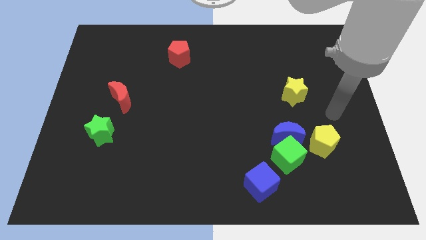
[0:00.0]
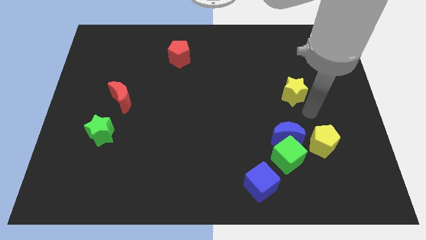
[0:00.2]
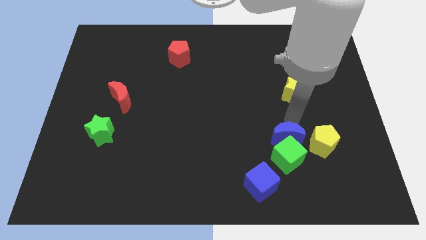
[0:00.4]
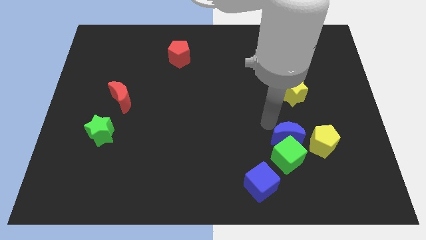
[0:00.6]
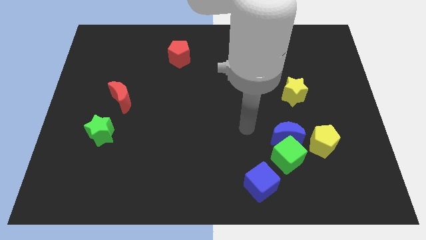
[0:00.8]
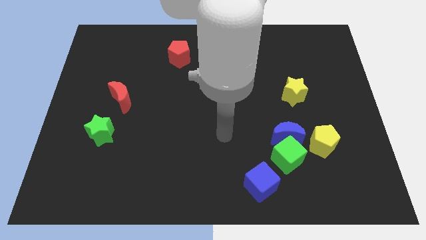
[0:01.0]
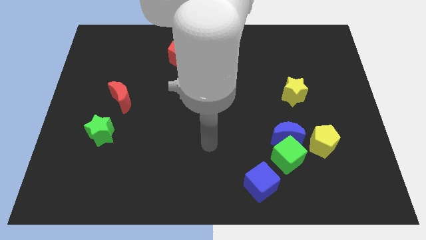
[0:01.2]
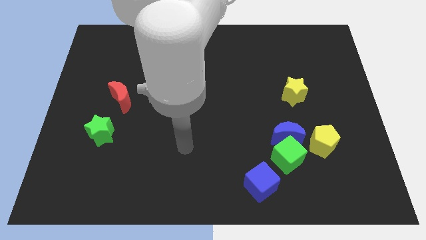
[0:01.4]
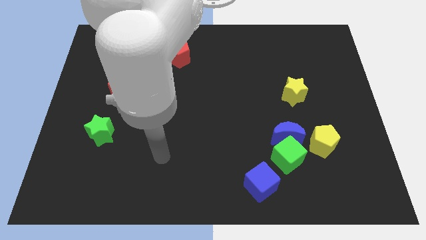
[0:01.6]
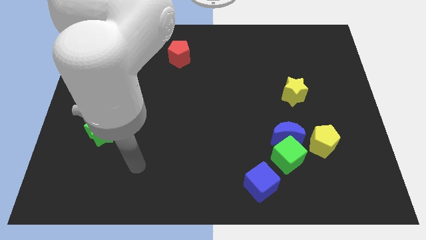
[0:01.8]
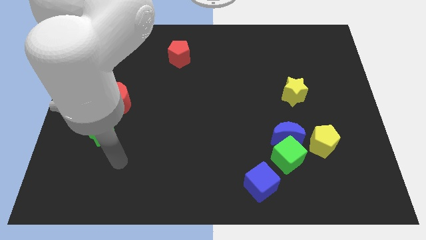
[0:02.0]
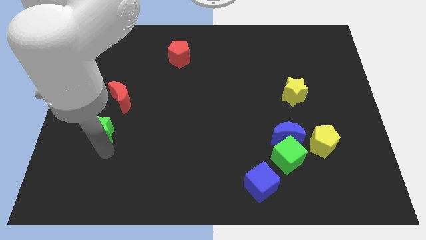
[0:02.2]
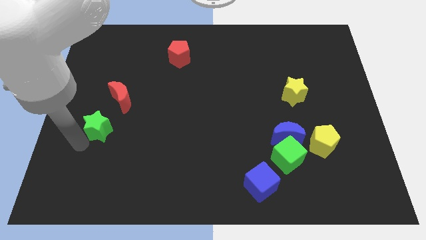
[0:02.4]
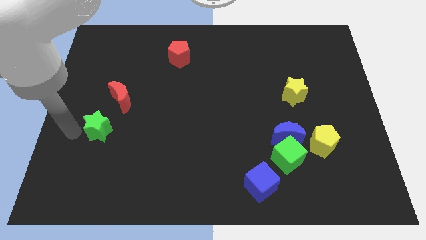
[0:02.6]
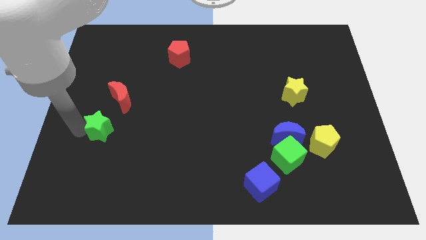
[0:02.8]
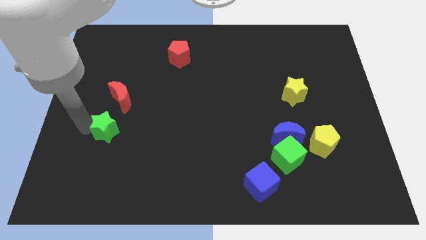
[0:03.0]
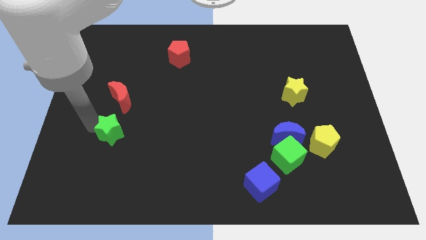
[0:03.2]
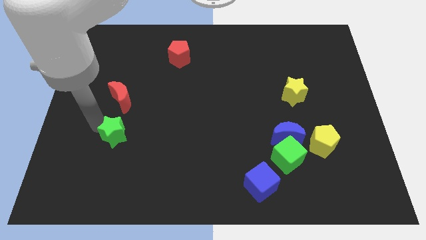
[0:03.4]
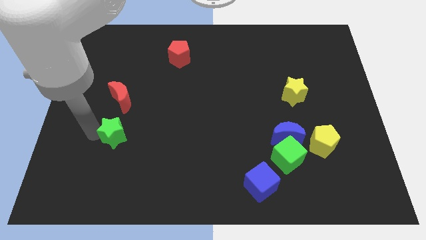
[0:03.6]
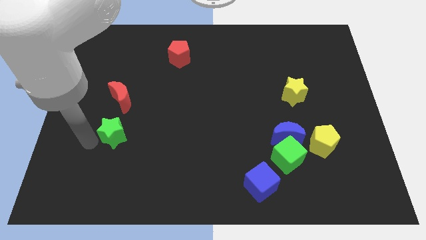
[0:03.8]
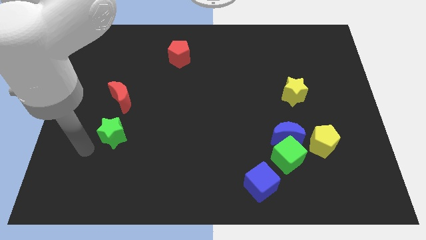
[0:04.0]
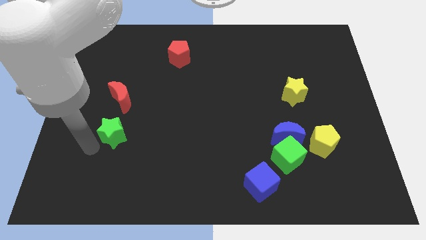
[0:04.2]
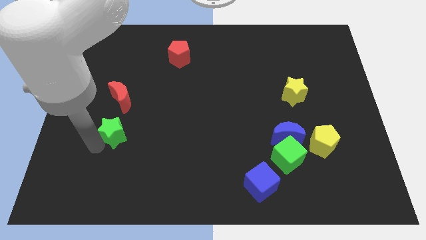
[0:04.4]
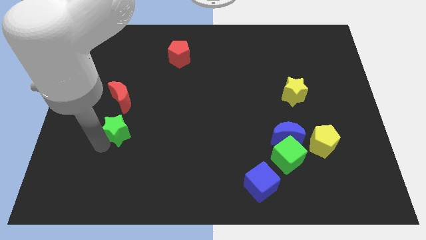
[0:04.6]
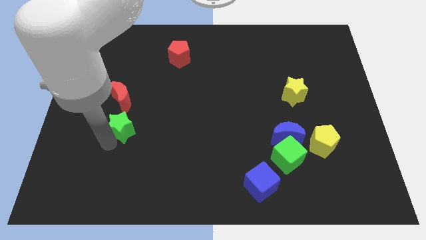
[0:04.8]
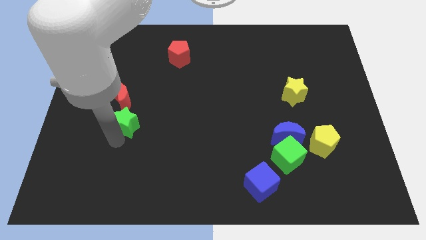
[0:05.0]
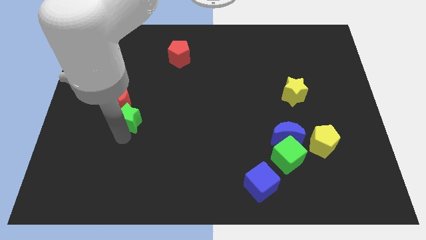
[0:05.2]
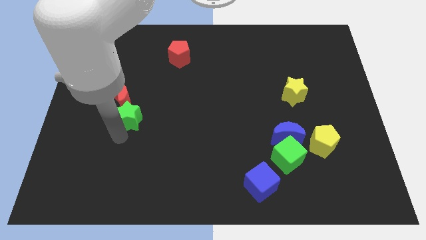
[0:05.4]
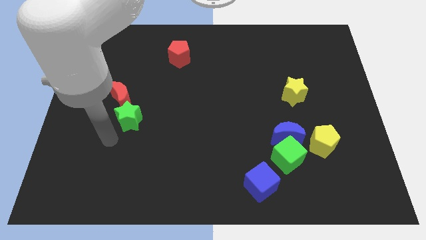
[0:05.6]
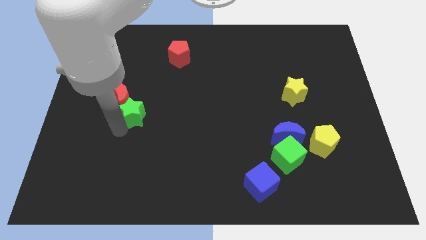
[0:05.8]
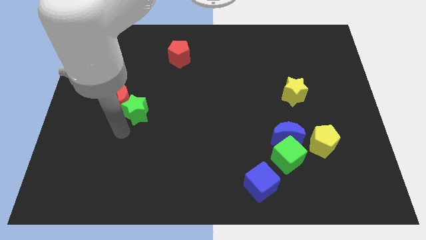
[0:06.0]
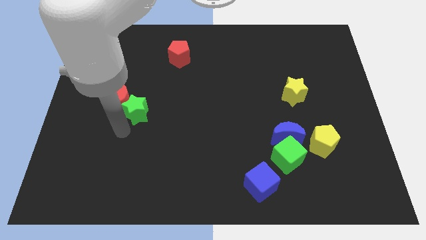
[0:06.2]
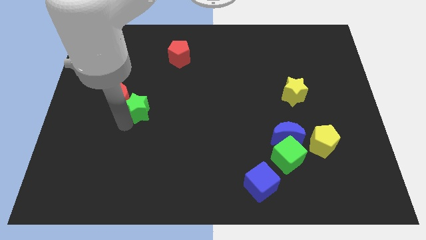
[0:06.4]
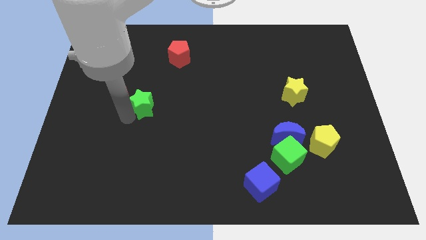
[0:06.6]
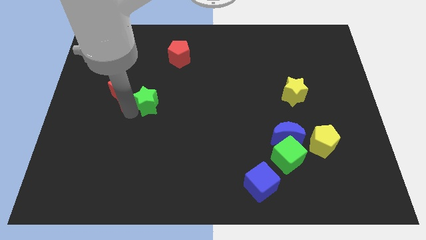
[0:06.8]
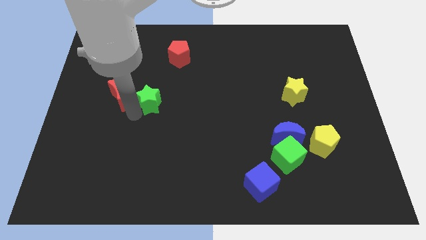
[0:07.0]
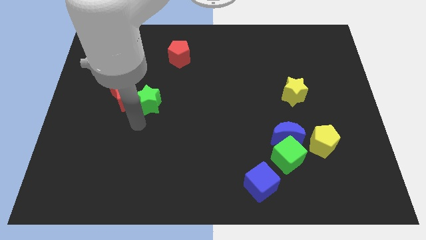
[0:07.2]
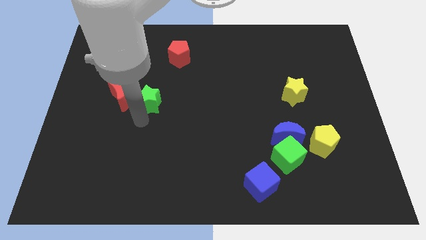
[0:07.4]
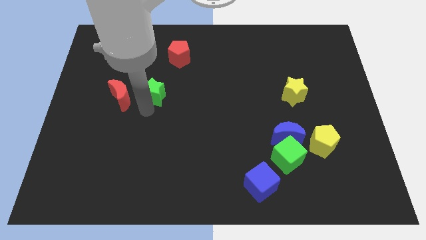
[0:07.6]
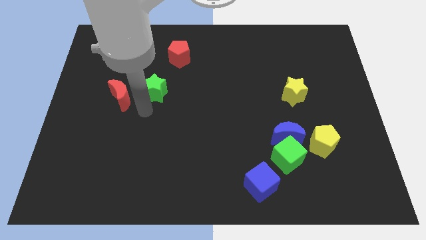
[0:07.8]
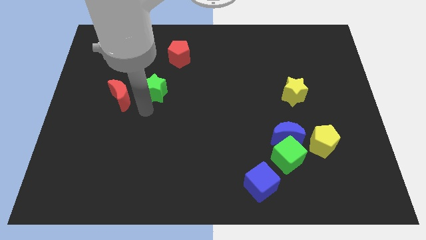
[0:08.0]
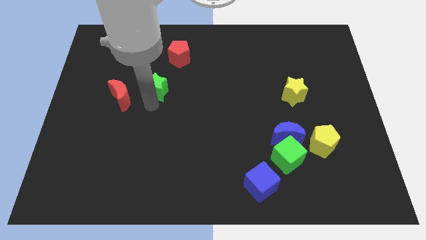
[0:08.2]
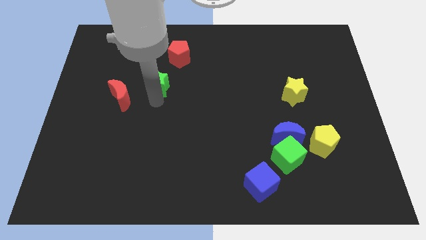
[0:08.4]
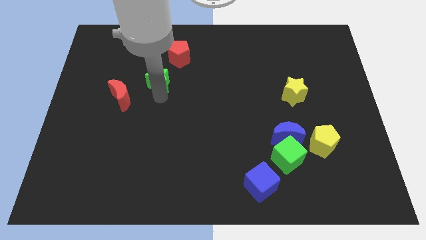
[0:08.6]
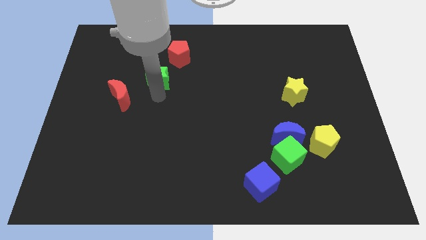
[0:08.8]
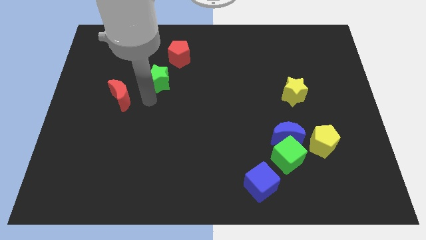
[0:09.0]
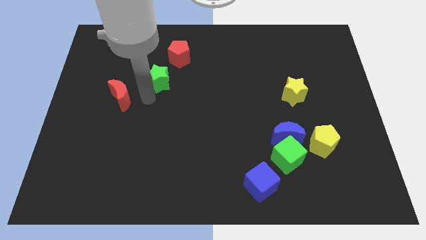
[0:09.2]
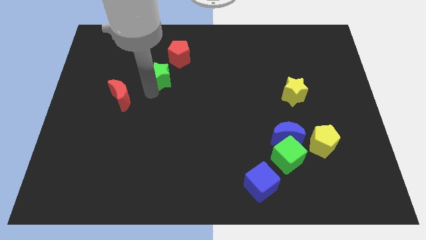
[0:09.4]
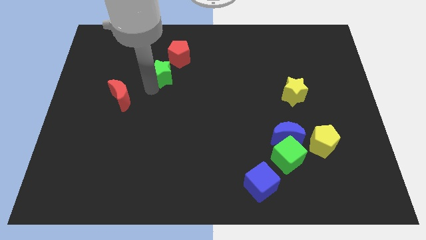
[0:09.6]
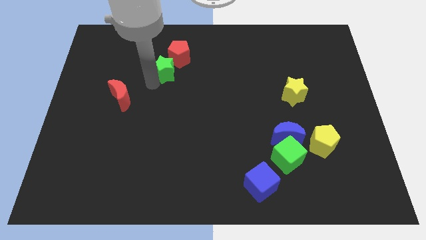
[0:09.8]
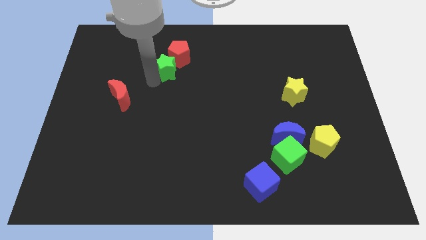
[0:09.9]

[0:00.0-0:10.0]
move the green star close to the red pentagon

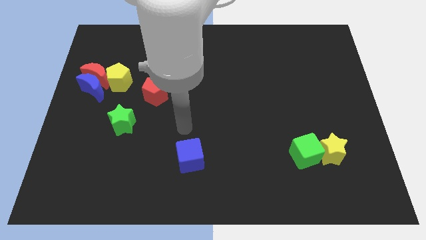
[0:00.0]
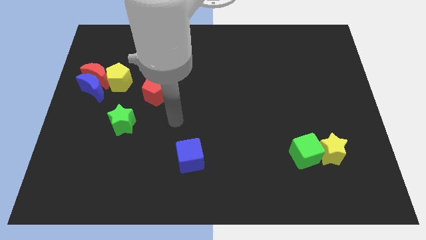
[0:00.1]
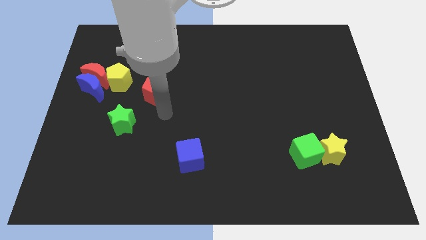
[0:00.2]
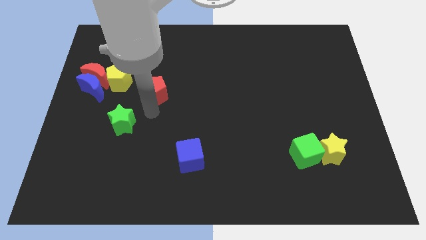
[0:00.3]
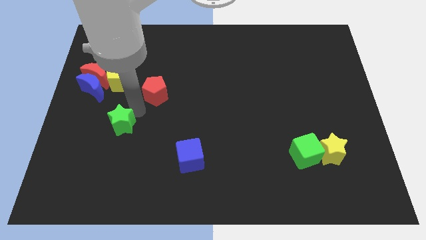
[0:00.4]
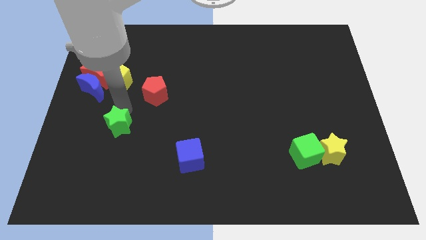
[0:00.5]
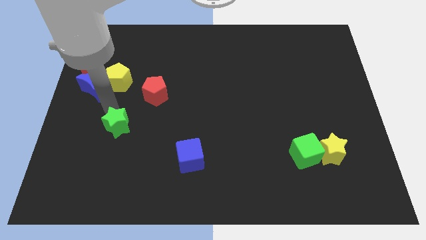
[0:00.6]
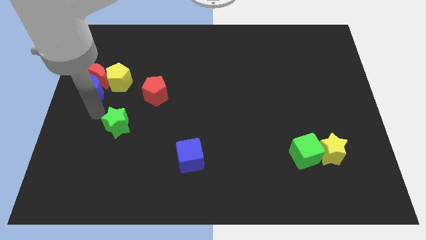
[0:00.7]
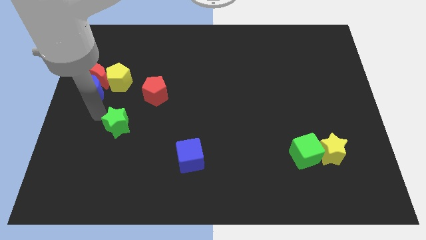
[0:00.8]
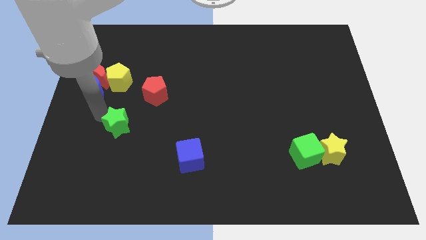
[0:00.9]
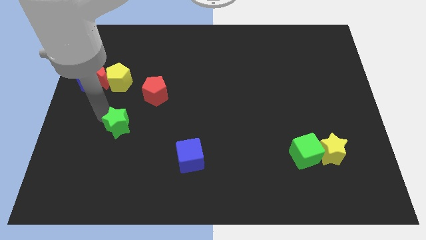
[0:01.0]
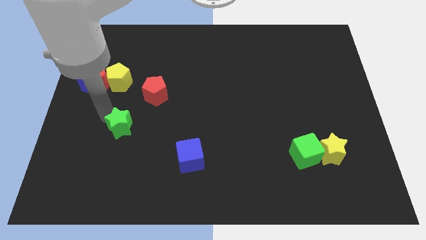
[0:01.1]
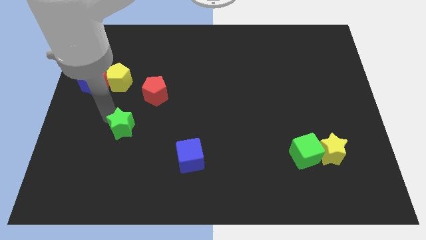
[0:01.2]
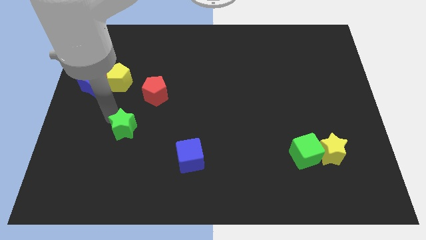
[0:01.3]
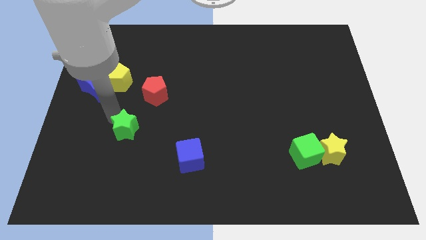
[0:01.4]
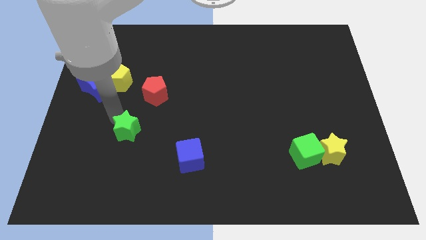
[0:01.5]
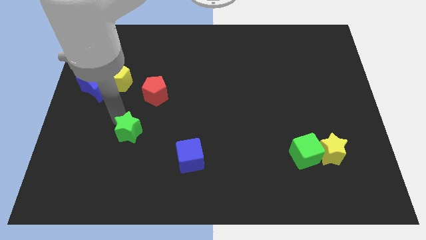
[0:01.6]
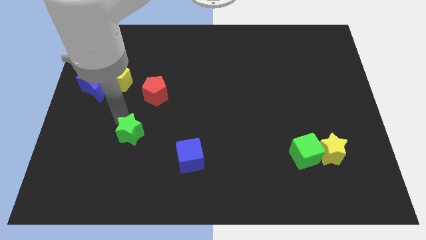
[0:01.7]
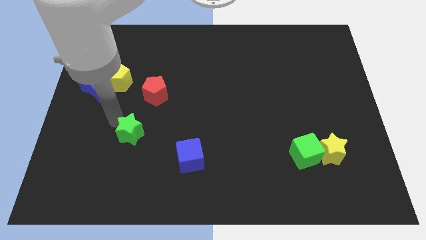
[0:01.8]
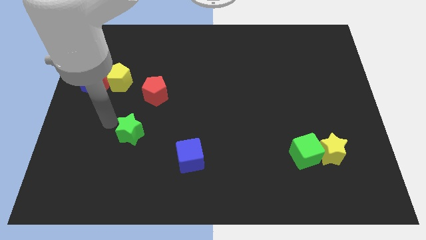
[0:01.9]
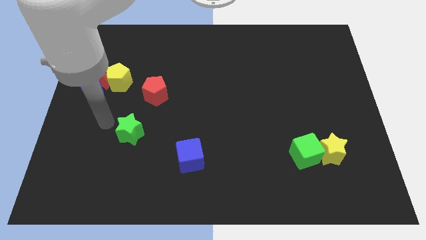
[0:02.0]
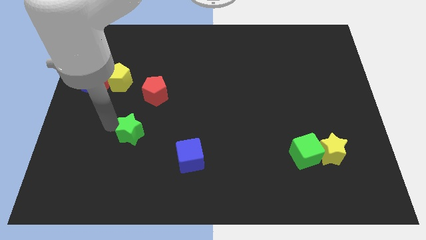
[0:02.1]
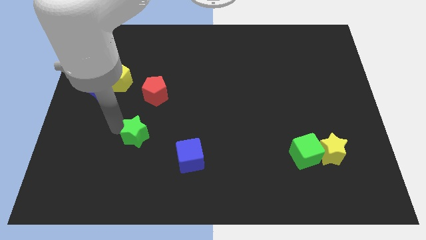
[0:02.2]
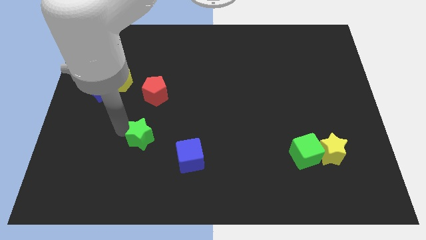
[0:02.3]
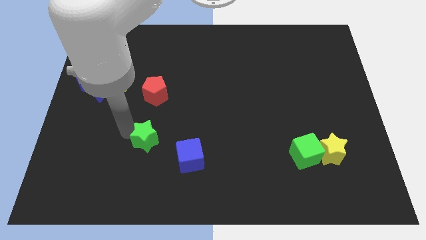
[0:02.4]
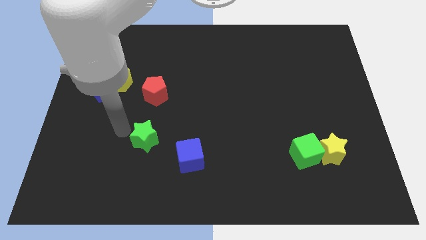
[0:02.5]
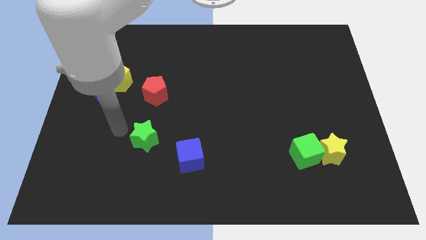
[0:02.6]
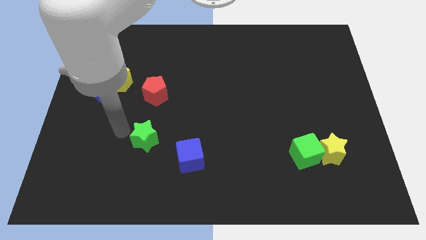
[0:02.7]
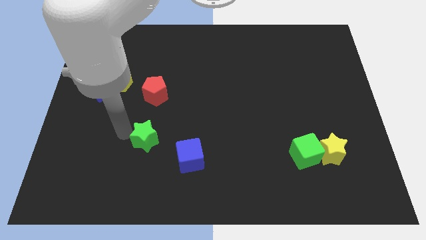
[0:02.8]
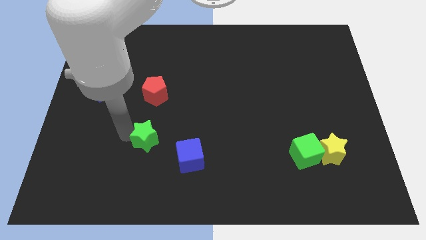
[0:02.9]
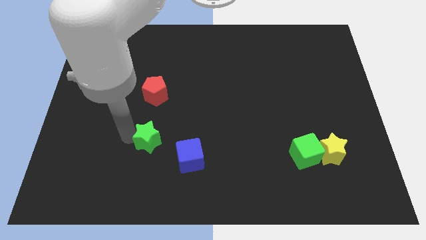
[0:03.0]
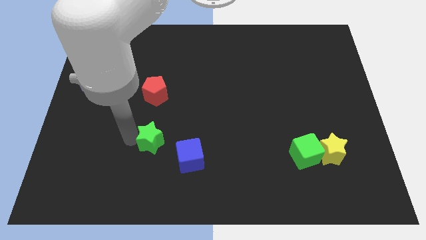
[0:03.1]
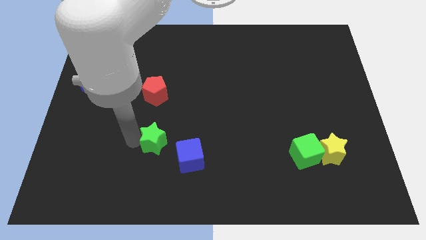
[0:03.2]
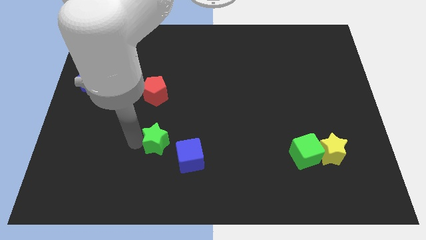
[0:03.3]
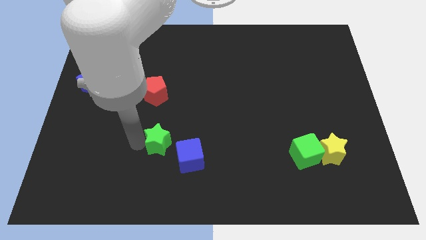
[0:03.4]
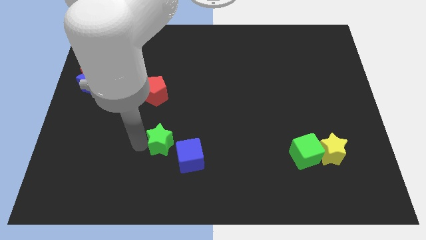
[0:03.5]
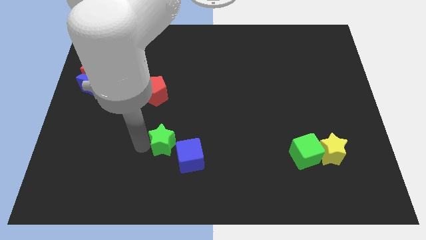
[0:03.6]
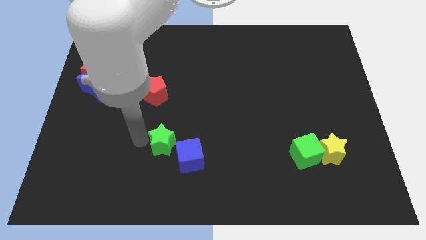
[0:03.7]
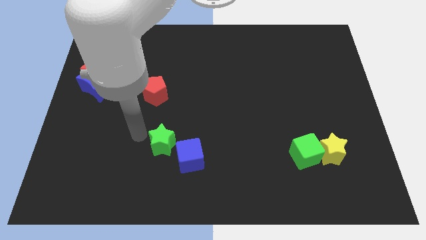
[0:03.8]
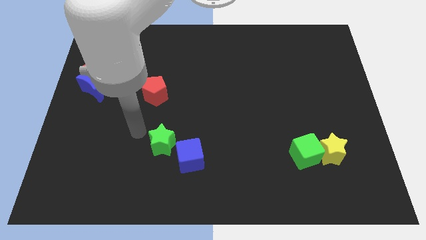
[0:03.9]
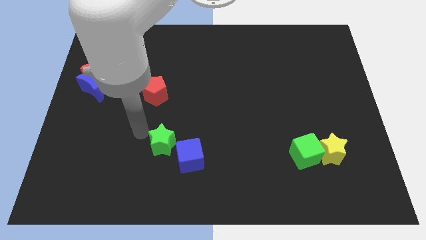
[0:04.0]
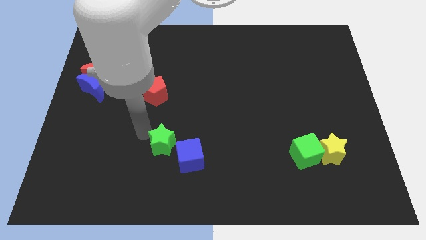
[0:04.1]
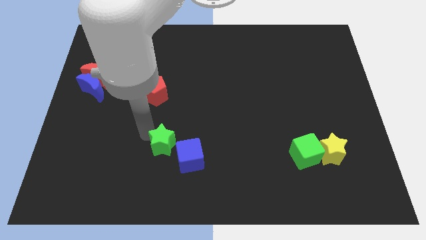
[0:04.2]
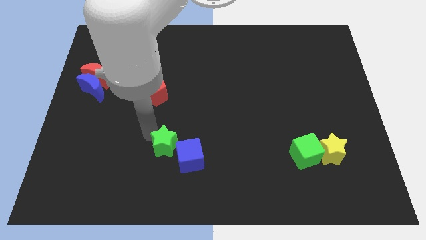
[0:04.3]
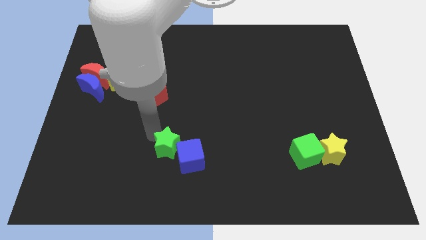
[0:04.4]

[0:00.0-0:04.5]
push the green star towards the blue cube
